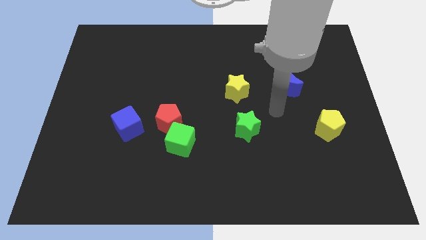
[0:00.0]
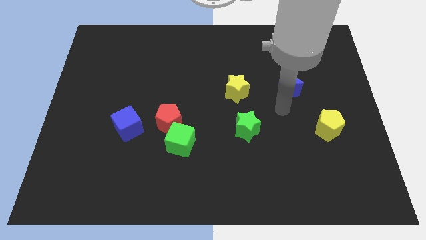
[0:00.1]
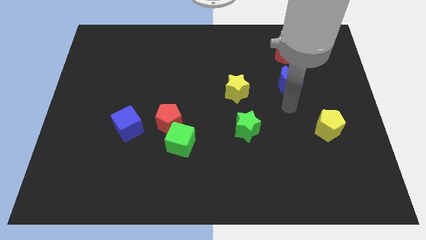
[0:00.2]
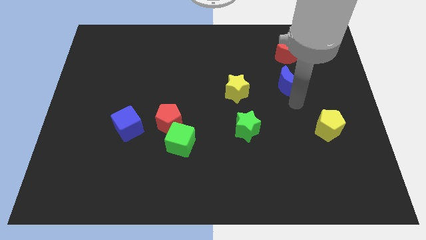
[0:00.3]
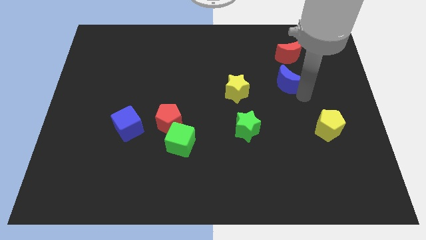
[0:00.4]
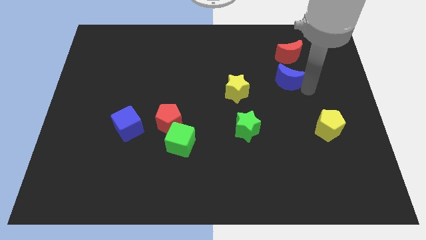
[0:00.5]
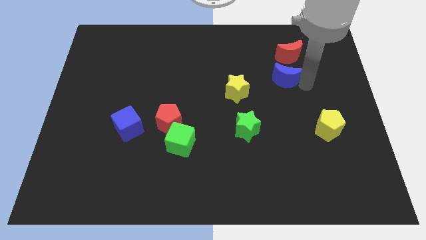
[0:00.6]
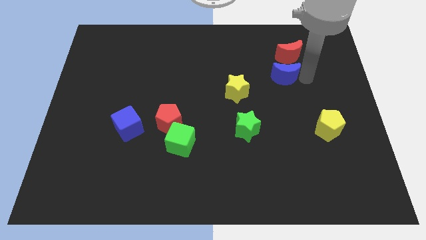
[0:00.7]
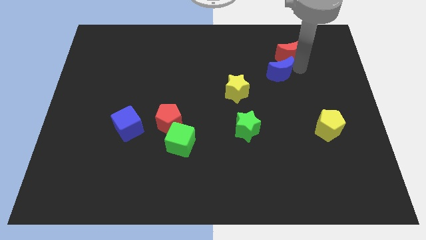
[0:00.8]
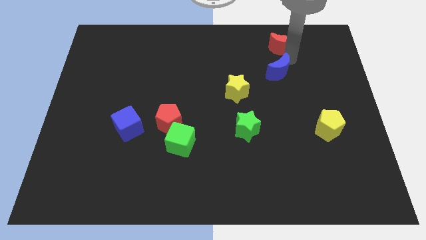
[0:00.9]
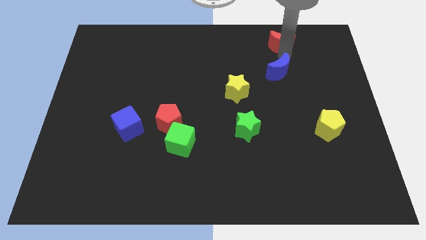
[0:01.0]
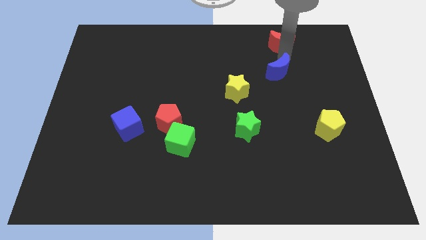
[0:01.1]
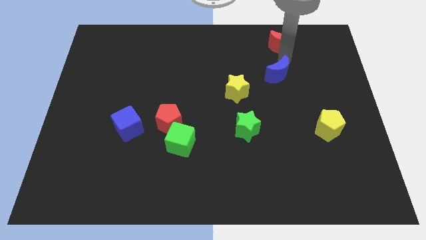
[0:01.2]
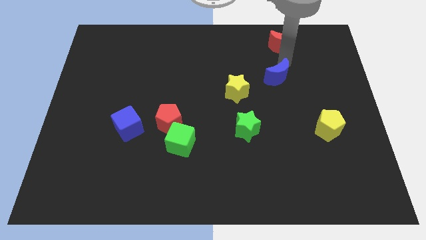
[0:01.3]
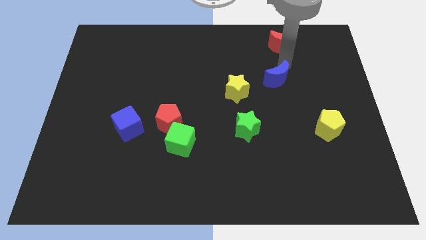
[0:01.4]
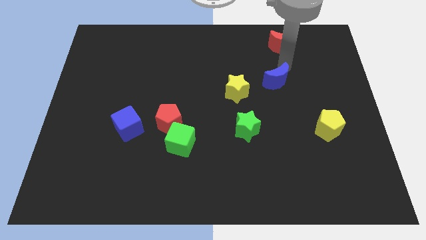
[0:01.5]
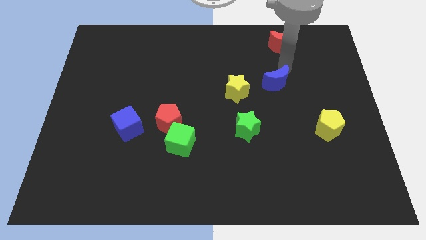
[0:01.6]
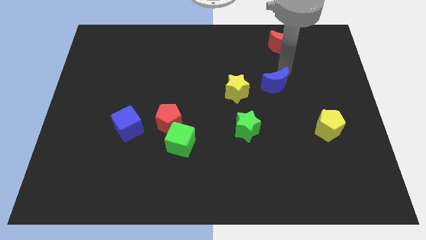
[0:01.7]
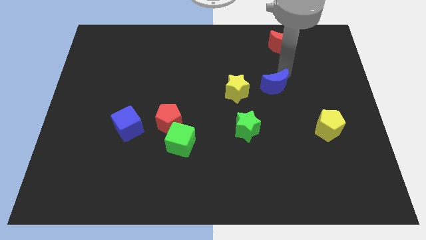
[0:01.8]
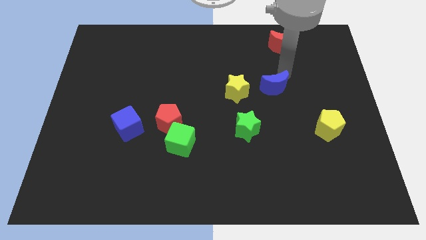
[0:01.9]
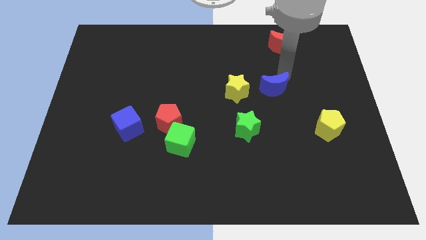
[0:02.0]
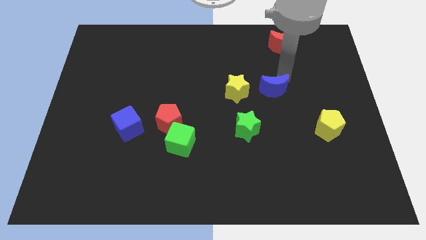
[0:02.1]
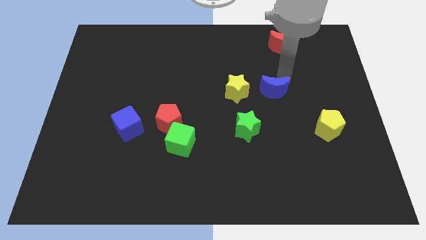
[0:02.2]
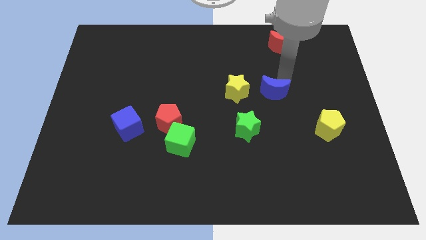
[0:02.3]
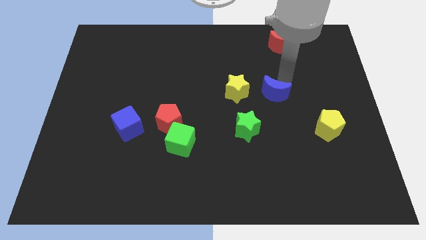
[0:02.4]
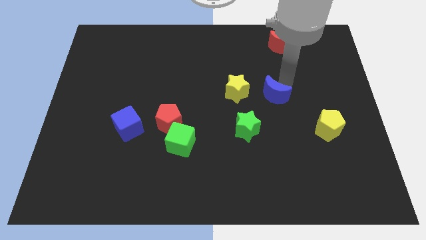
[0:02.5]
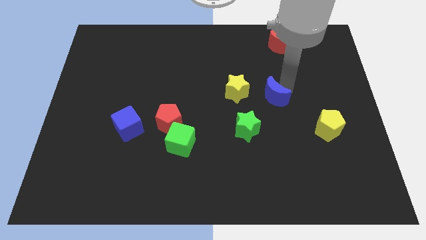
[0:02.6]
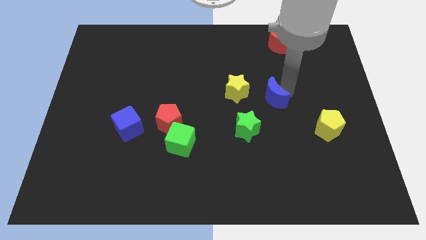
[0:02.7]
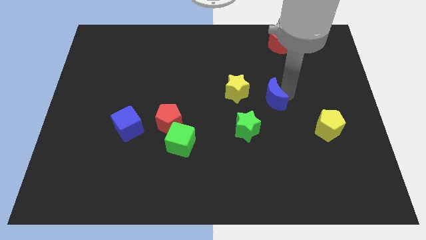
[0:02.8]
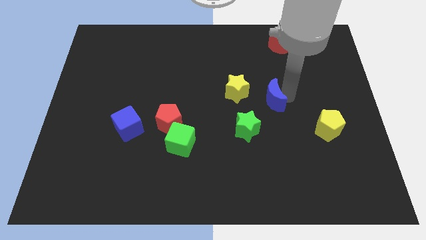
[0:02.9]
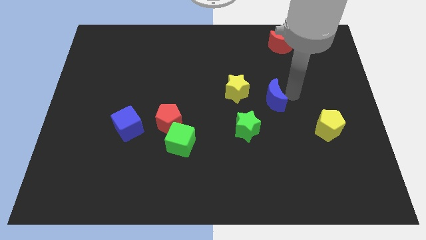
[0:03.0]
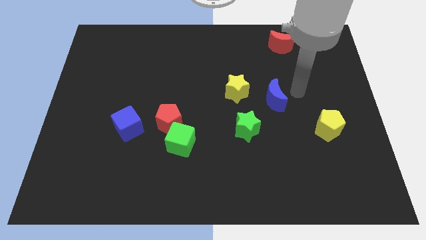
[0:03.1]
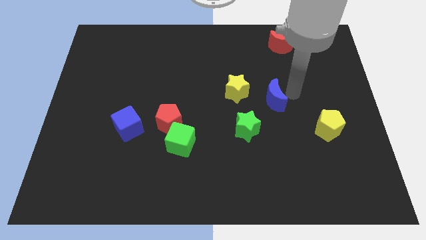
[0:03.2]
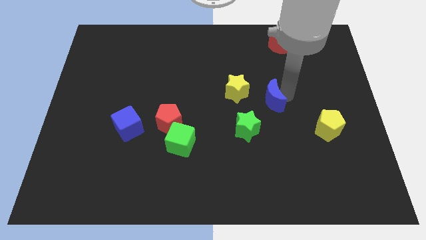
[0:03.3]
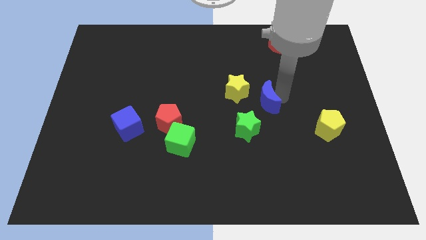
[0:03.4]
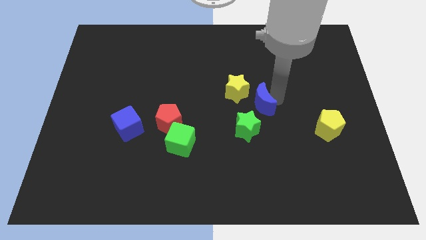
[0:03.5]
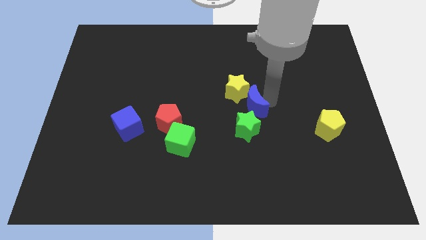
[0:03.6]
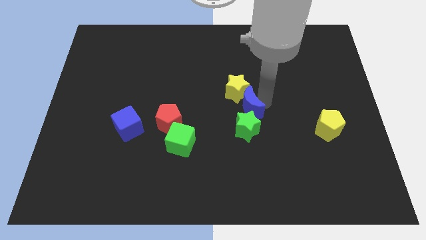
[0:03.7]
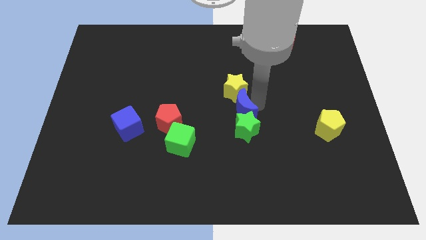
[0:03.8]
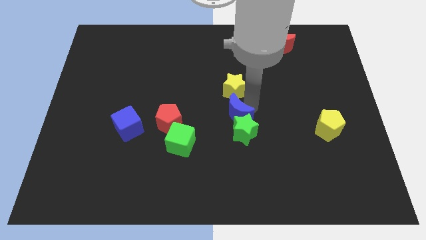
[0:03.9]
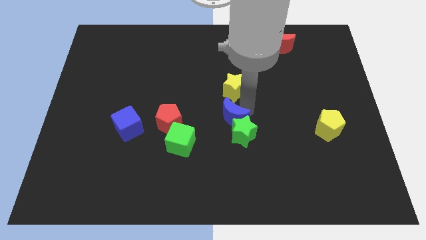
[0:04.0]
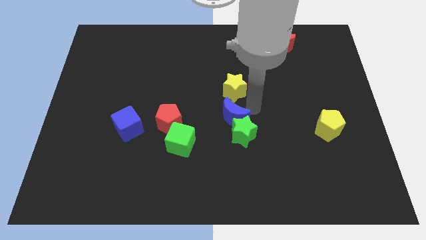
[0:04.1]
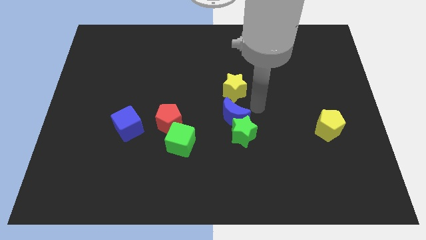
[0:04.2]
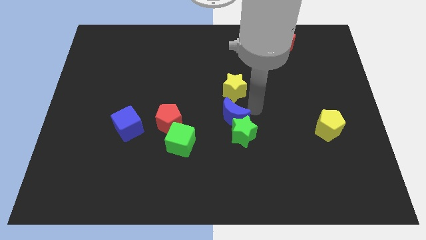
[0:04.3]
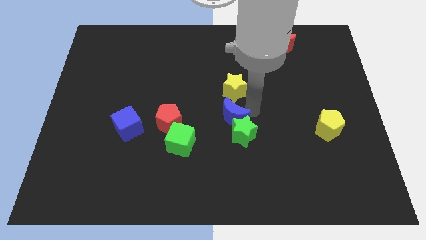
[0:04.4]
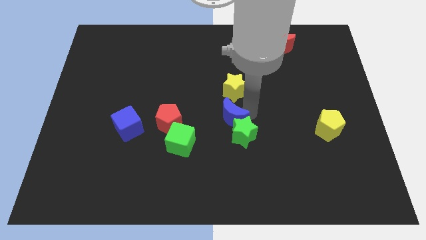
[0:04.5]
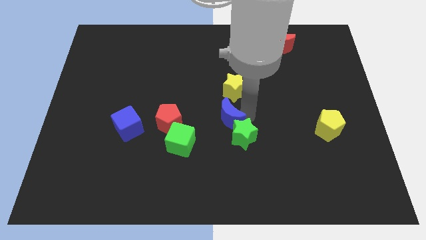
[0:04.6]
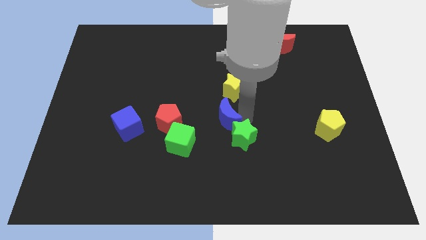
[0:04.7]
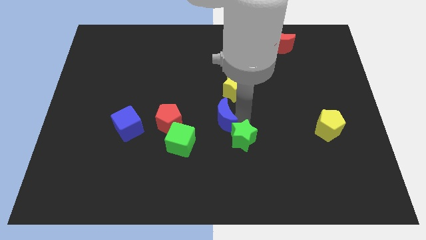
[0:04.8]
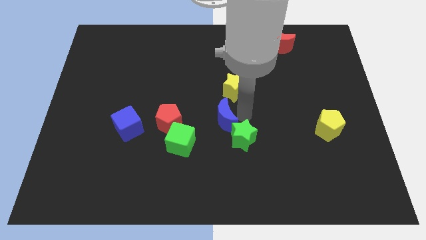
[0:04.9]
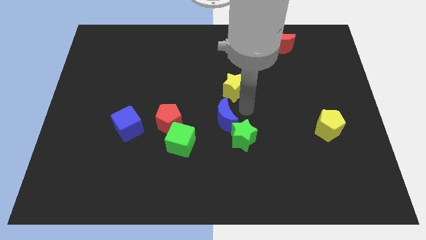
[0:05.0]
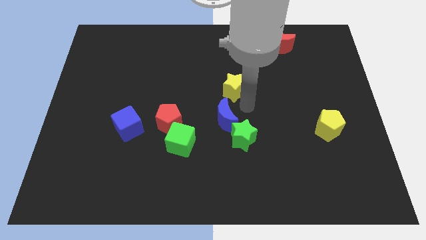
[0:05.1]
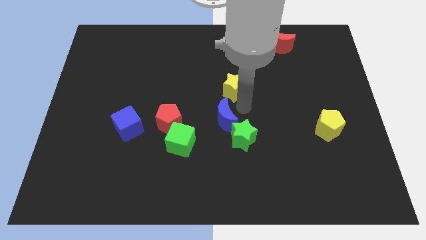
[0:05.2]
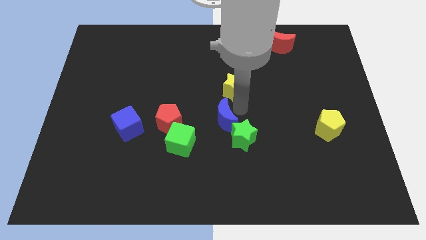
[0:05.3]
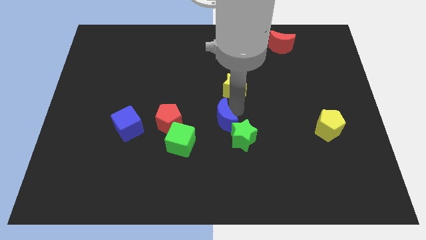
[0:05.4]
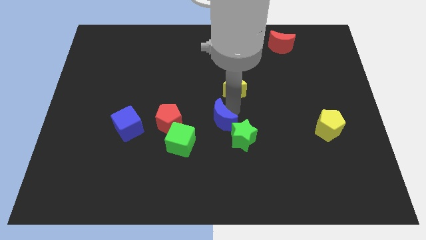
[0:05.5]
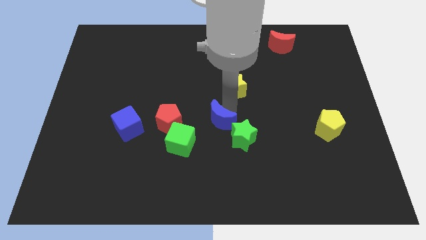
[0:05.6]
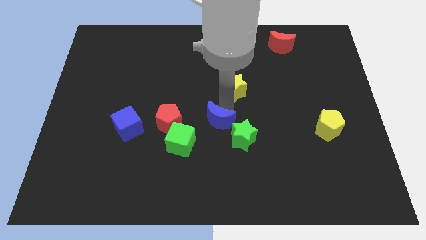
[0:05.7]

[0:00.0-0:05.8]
move the blue moon to the left of the green star

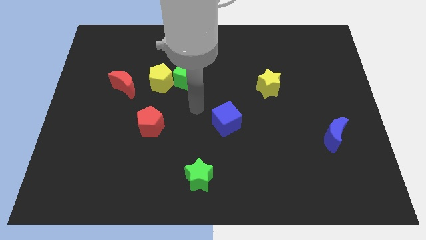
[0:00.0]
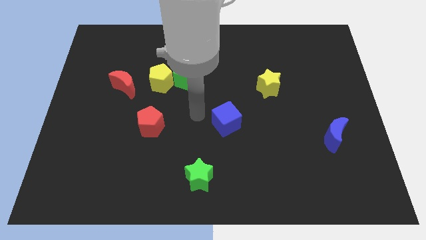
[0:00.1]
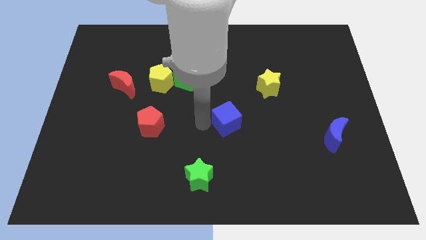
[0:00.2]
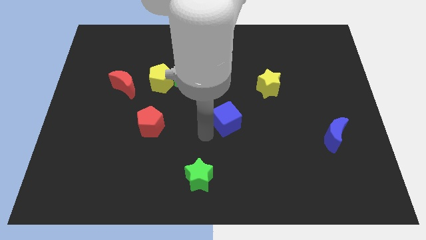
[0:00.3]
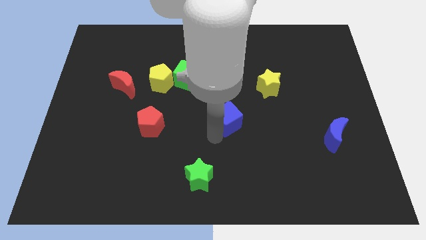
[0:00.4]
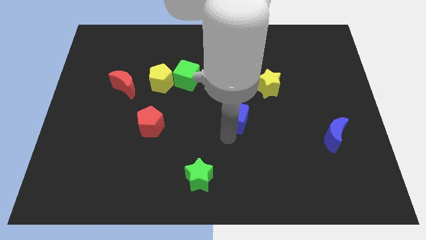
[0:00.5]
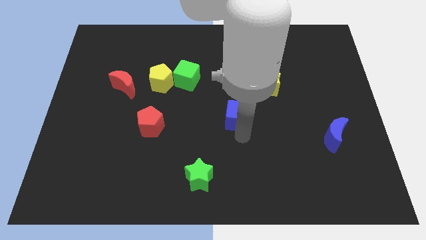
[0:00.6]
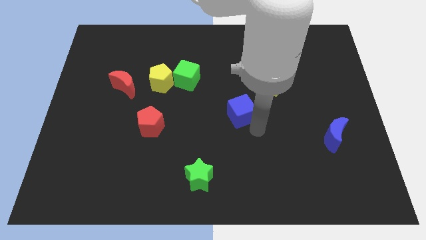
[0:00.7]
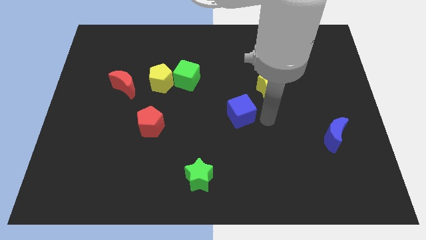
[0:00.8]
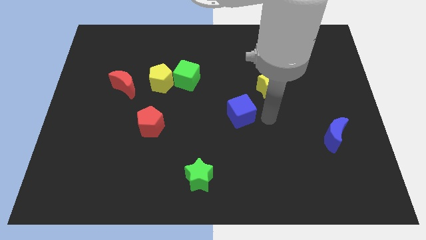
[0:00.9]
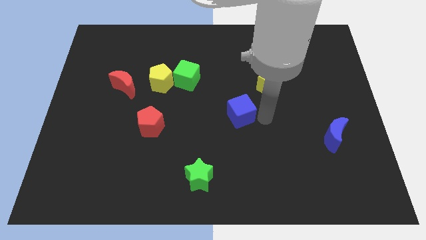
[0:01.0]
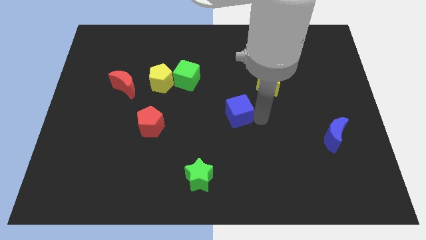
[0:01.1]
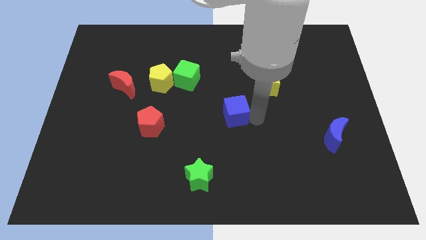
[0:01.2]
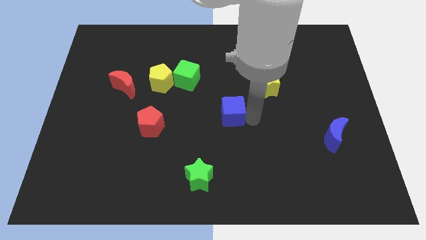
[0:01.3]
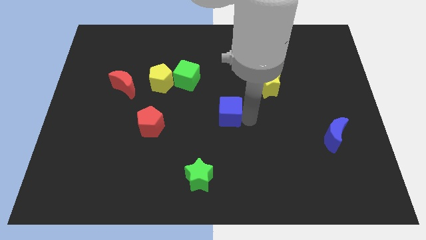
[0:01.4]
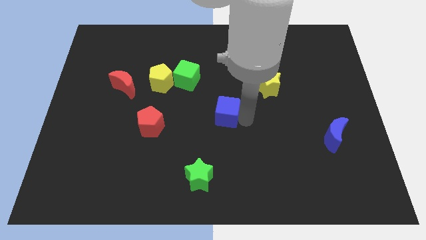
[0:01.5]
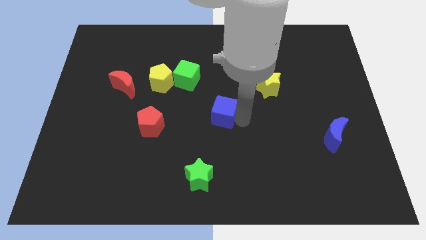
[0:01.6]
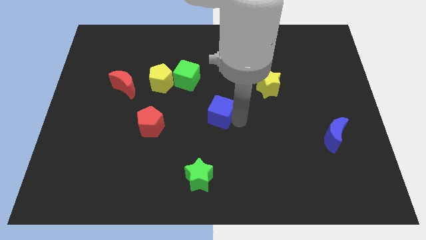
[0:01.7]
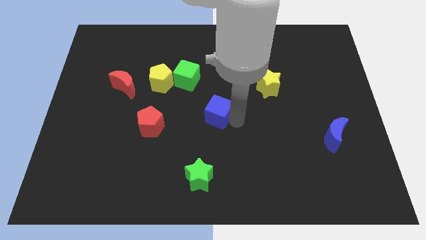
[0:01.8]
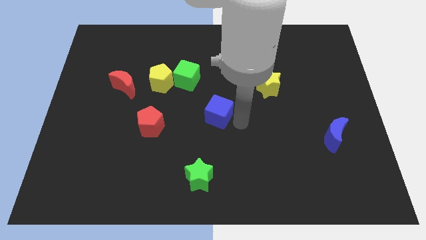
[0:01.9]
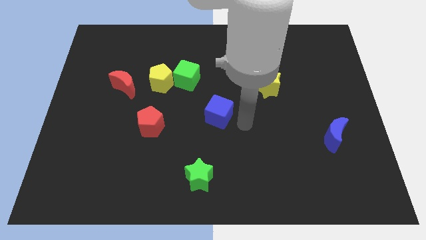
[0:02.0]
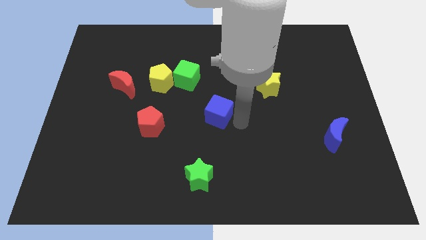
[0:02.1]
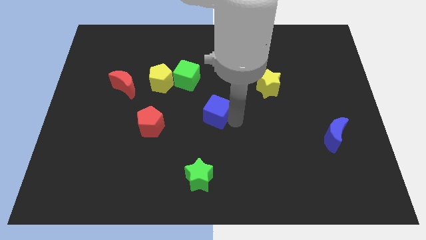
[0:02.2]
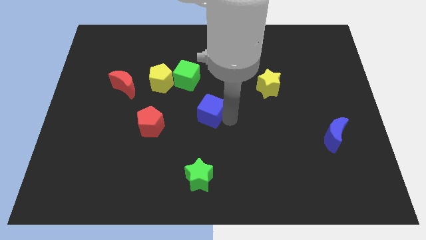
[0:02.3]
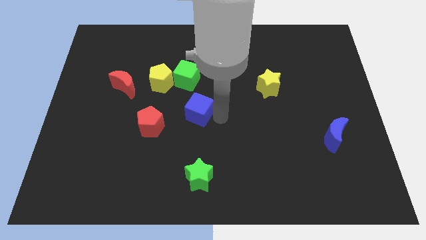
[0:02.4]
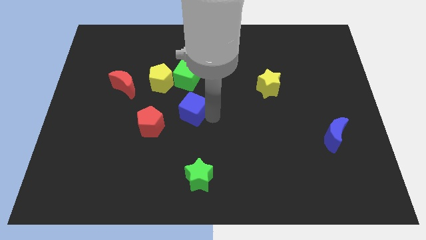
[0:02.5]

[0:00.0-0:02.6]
move the blue cube to the bottom right side of the yellow pentagon
